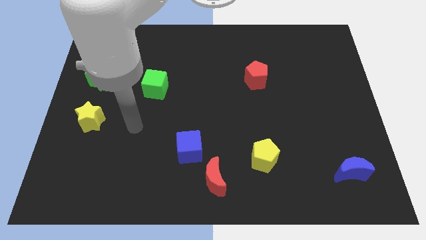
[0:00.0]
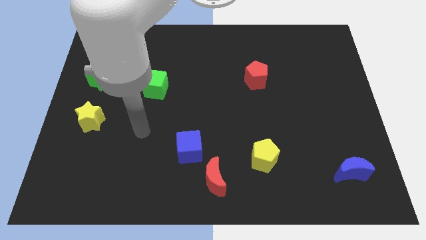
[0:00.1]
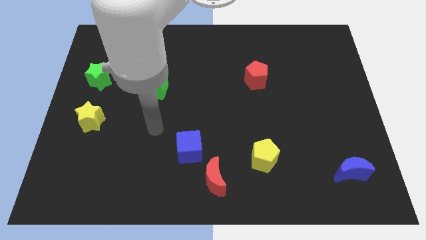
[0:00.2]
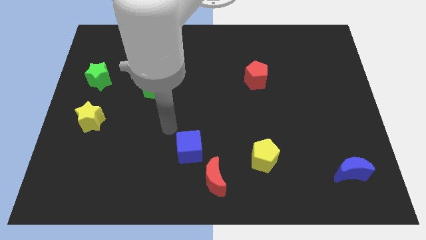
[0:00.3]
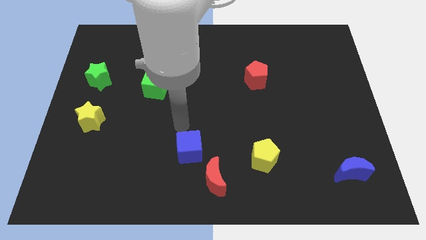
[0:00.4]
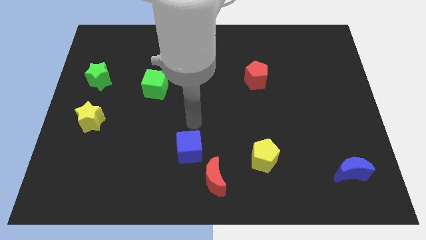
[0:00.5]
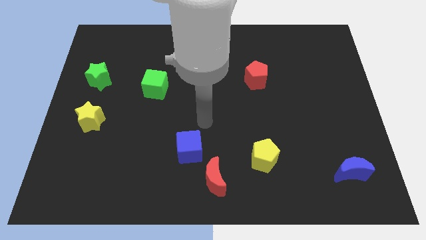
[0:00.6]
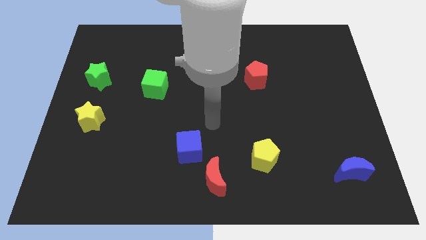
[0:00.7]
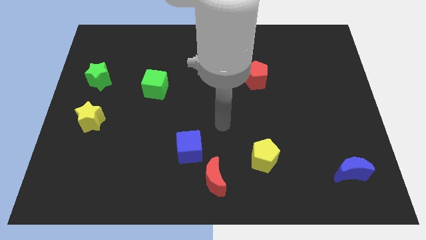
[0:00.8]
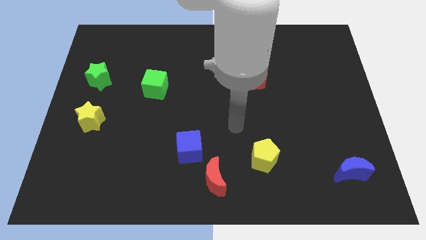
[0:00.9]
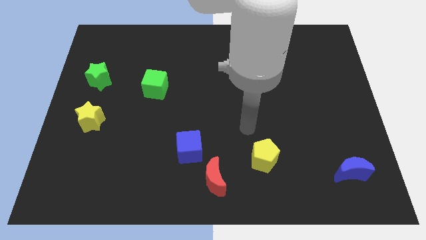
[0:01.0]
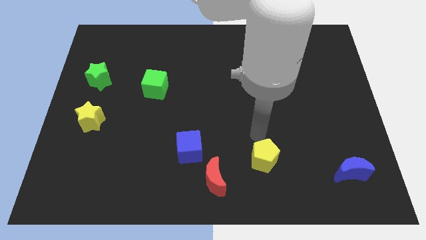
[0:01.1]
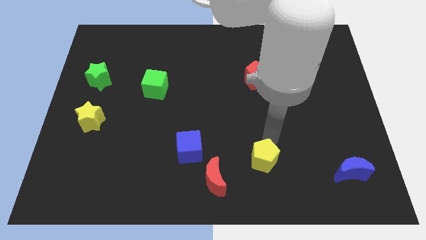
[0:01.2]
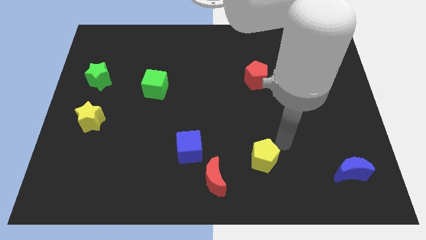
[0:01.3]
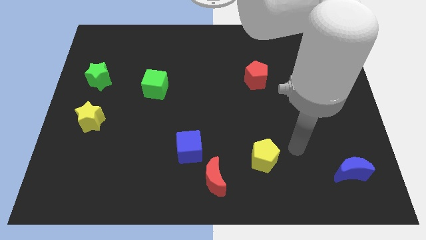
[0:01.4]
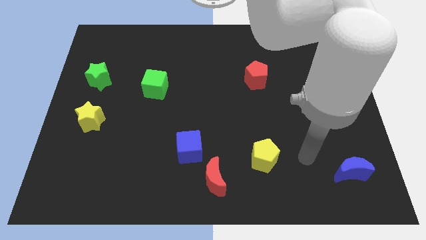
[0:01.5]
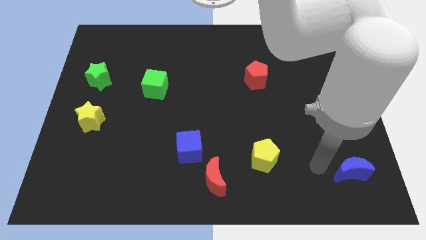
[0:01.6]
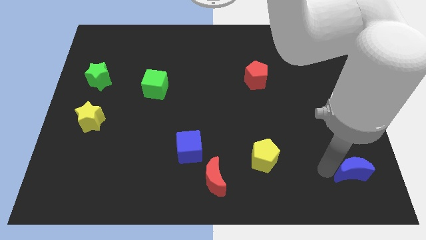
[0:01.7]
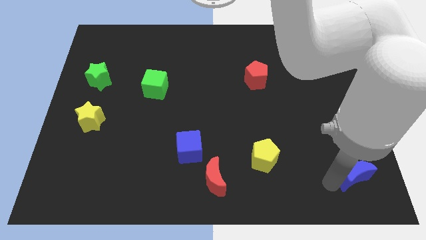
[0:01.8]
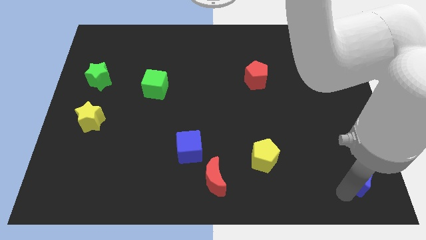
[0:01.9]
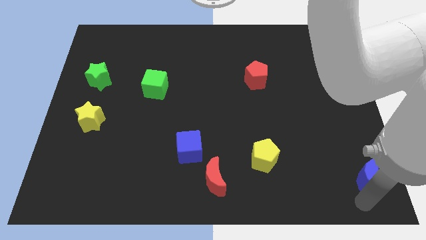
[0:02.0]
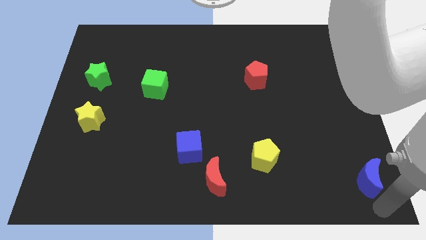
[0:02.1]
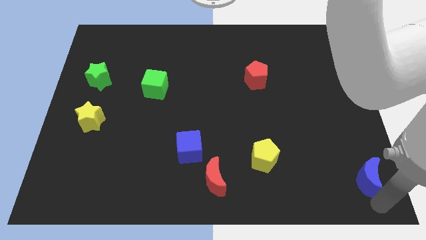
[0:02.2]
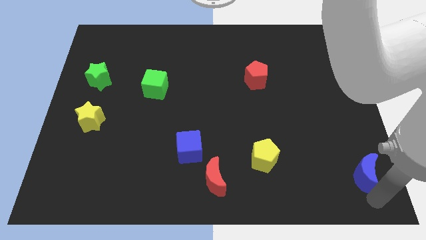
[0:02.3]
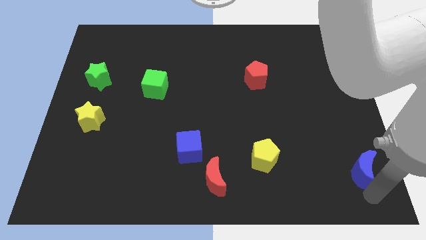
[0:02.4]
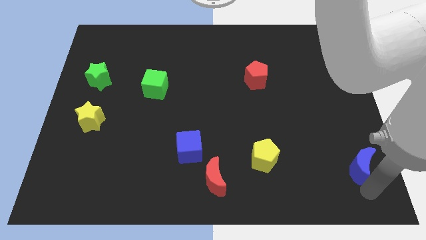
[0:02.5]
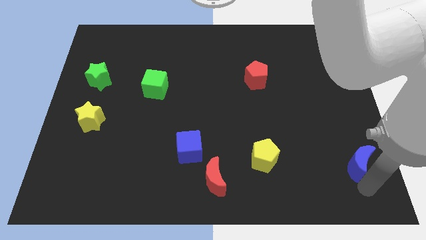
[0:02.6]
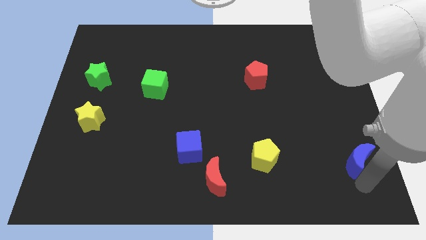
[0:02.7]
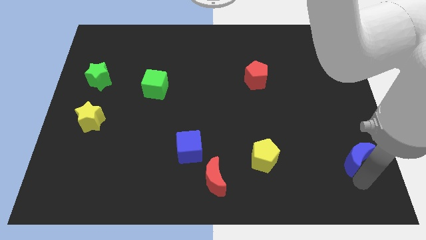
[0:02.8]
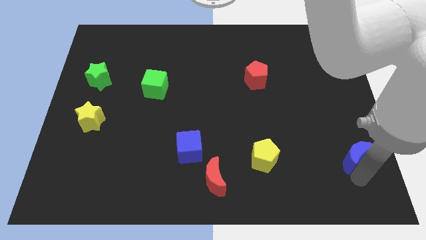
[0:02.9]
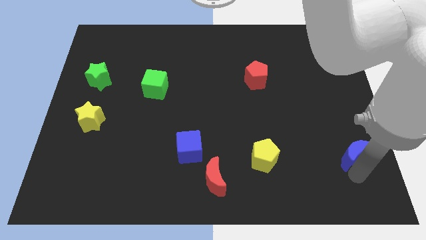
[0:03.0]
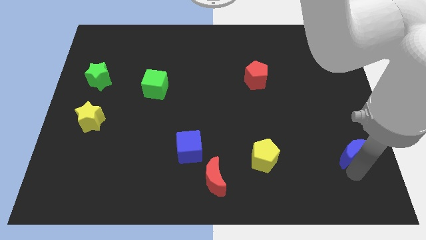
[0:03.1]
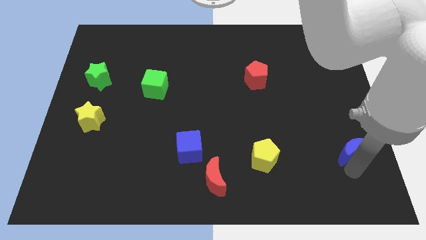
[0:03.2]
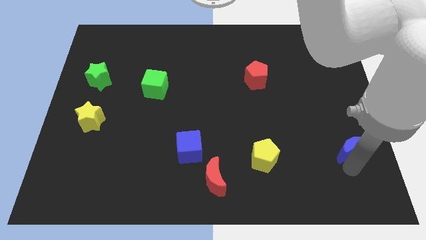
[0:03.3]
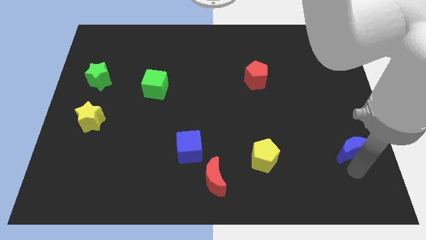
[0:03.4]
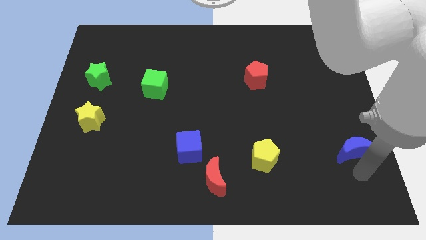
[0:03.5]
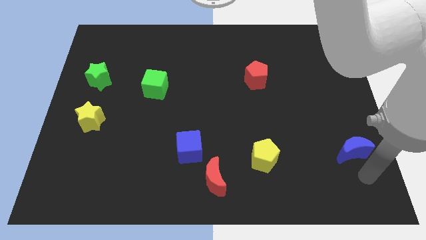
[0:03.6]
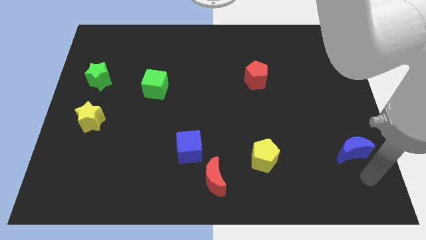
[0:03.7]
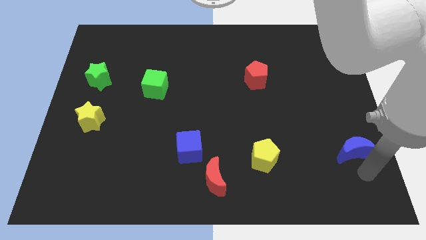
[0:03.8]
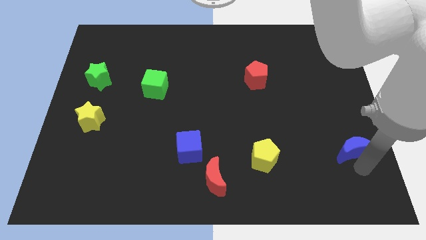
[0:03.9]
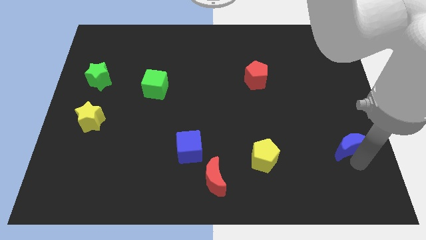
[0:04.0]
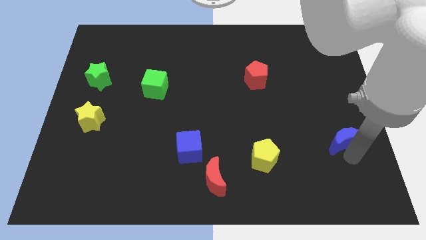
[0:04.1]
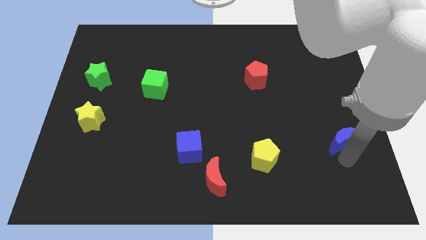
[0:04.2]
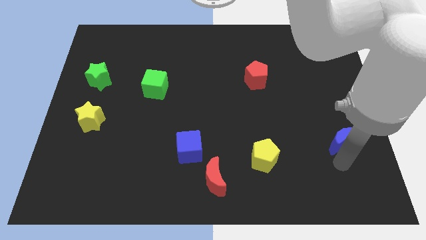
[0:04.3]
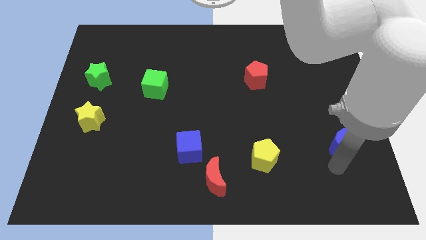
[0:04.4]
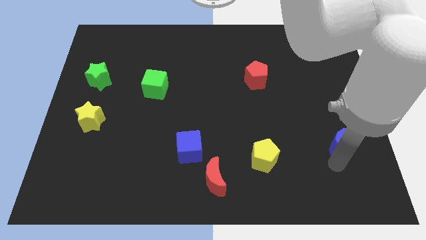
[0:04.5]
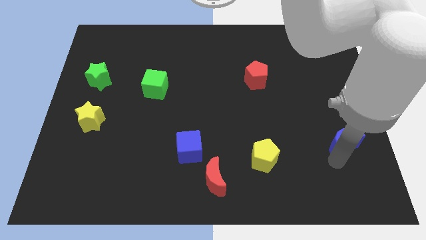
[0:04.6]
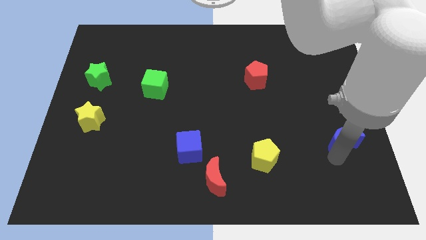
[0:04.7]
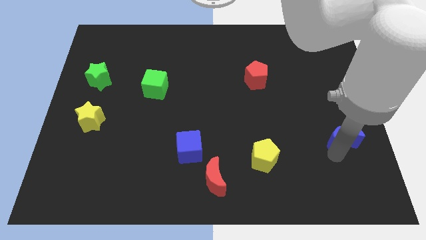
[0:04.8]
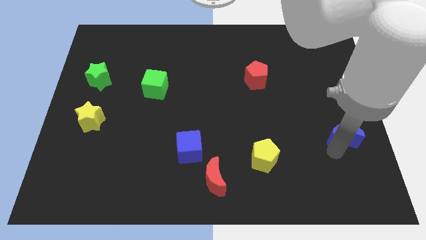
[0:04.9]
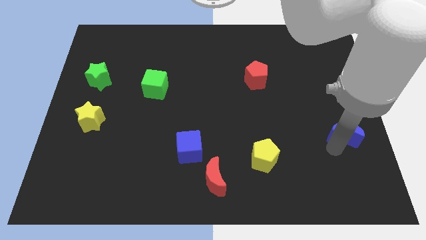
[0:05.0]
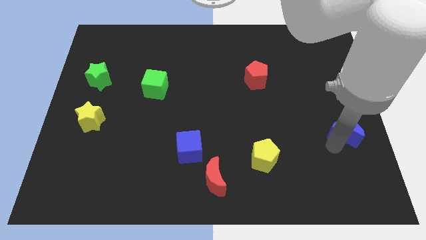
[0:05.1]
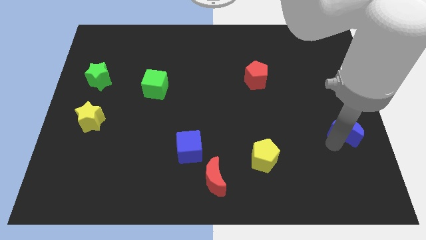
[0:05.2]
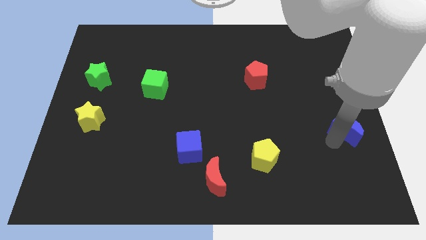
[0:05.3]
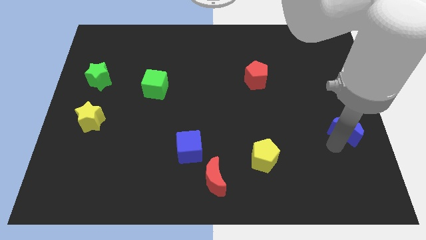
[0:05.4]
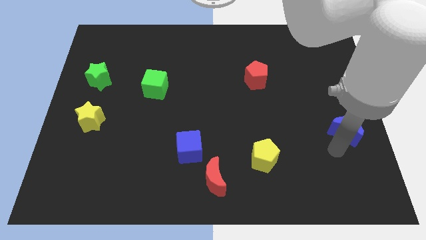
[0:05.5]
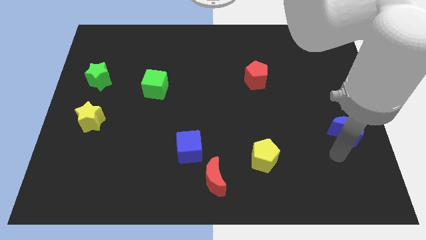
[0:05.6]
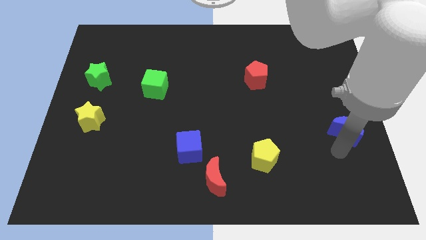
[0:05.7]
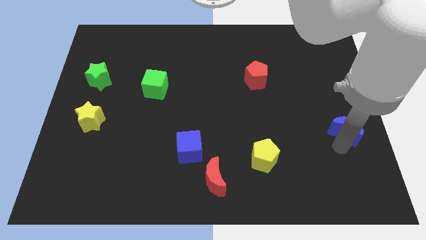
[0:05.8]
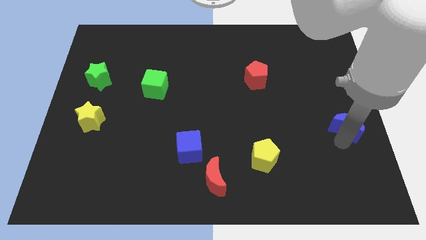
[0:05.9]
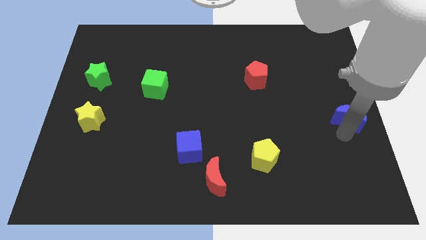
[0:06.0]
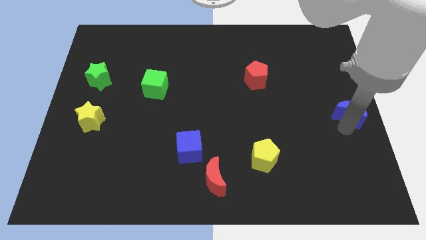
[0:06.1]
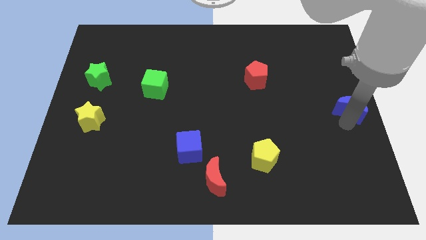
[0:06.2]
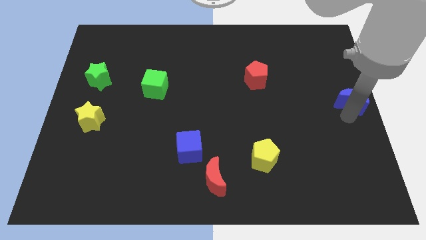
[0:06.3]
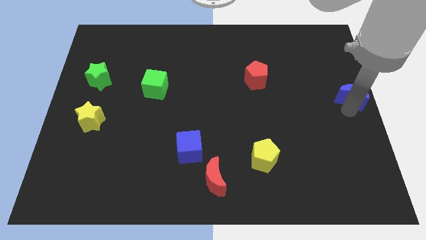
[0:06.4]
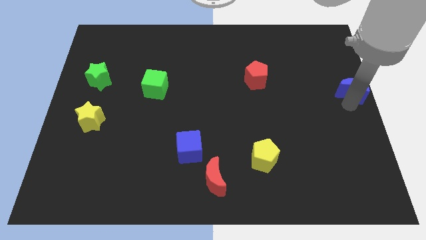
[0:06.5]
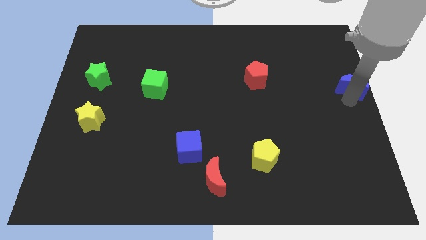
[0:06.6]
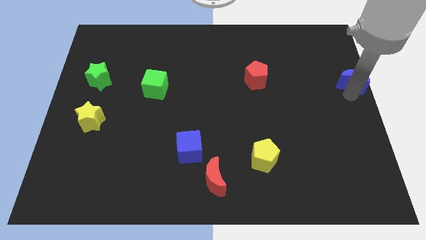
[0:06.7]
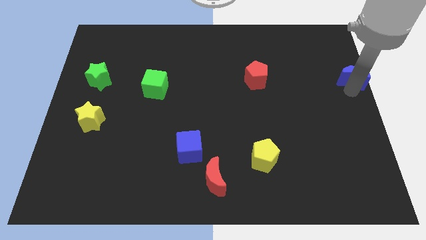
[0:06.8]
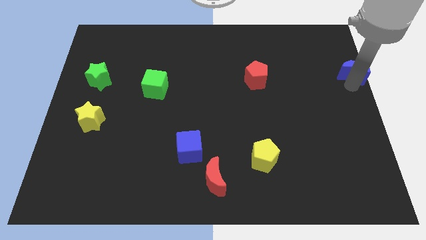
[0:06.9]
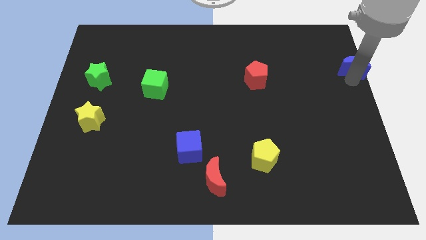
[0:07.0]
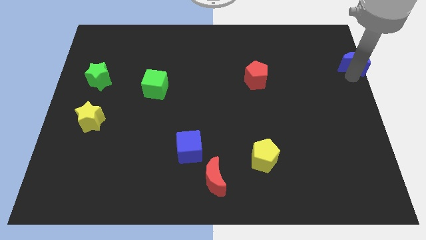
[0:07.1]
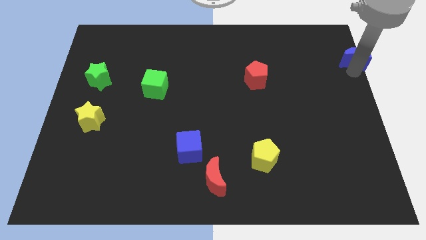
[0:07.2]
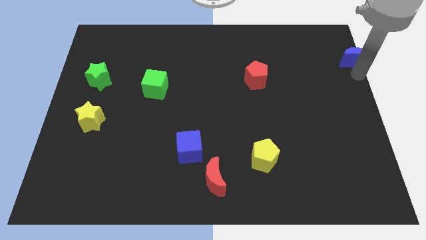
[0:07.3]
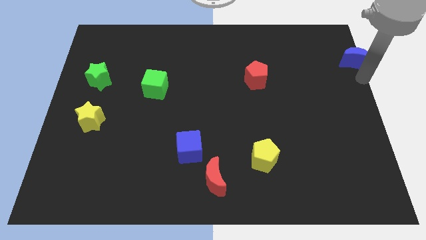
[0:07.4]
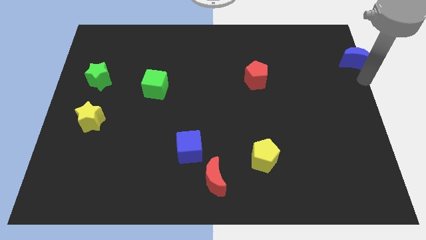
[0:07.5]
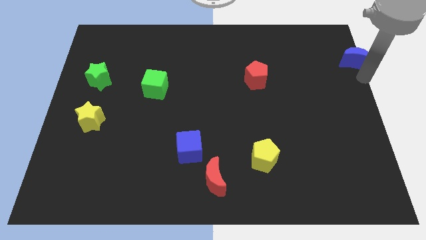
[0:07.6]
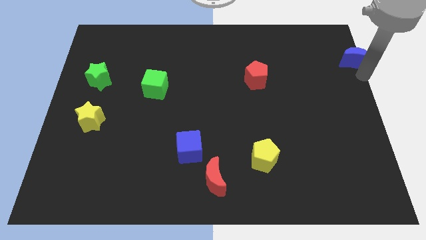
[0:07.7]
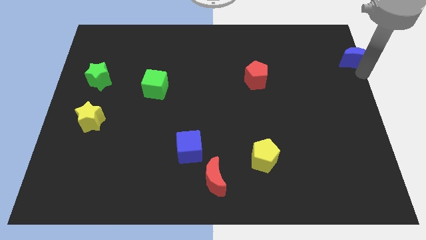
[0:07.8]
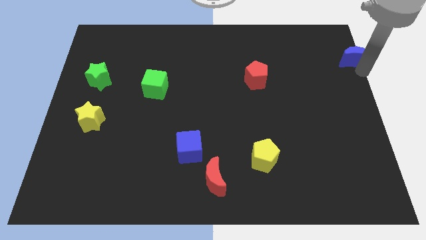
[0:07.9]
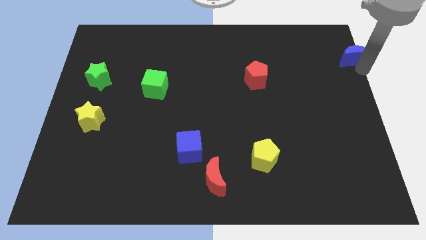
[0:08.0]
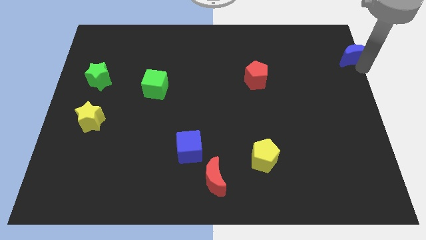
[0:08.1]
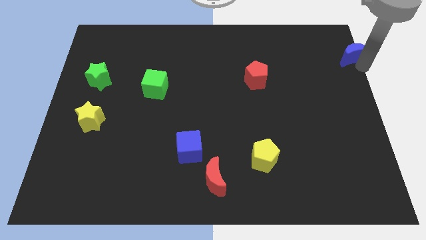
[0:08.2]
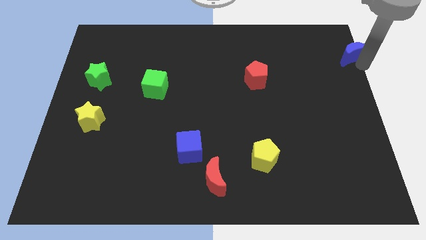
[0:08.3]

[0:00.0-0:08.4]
move the blue moon to the top right
